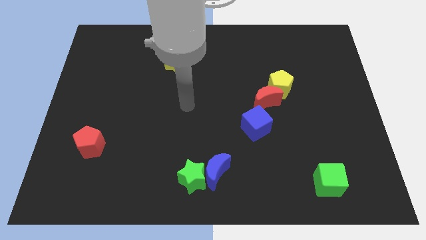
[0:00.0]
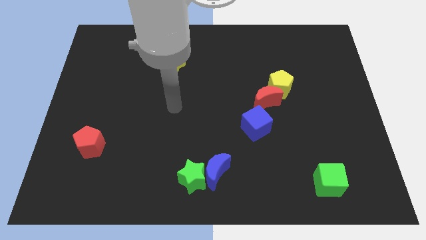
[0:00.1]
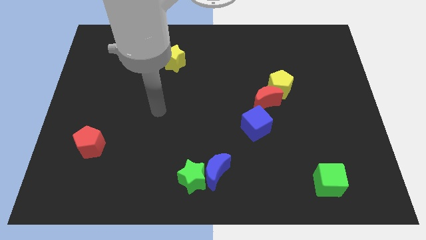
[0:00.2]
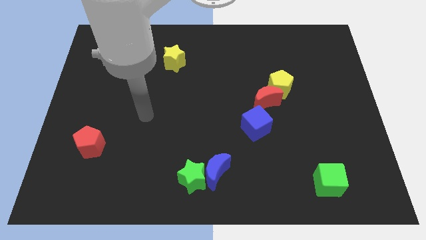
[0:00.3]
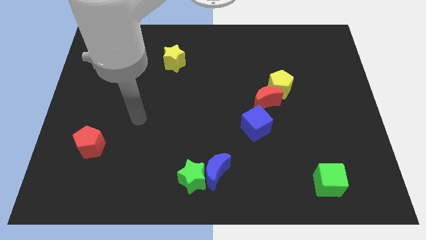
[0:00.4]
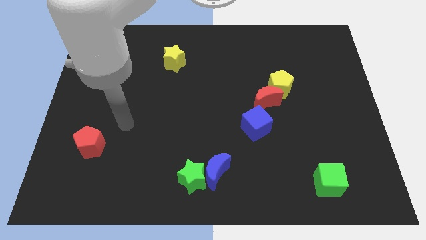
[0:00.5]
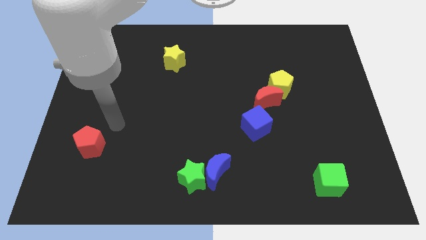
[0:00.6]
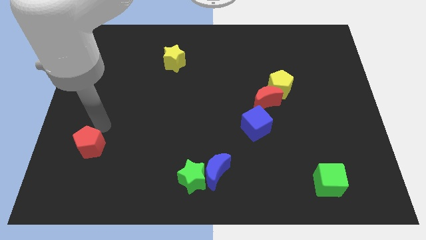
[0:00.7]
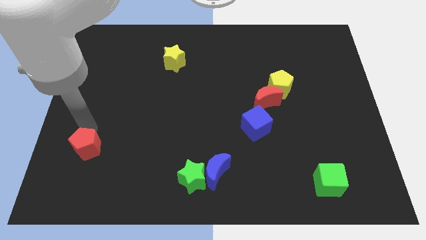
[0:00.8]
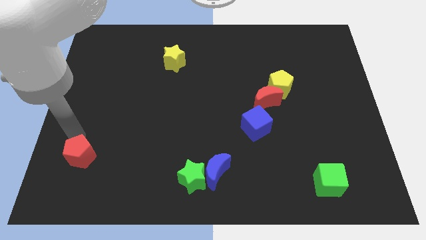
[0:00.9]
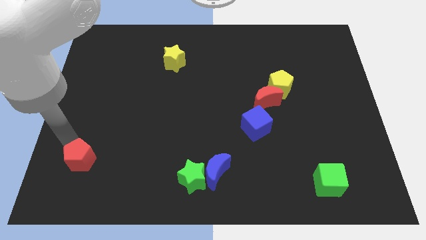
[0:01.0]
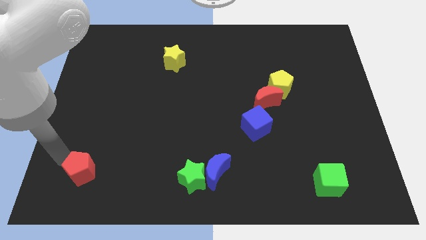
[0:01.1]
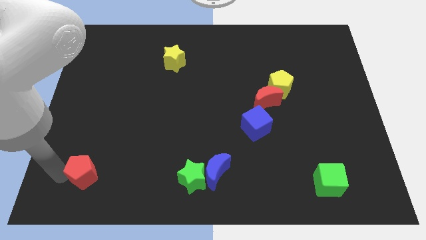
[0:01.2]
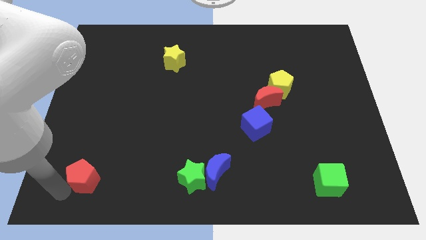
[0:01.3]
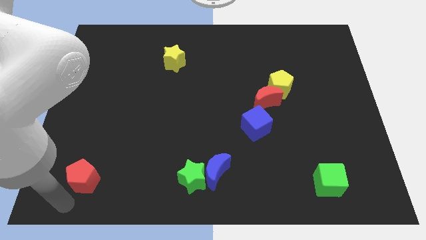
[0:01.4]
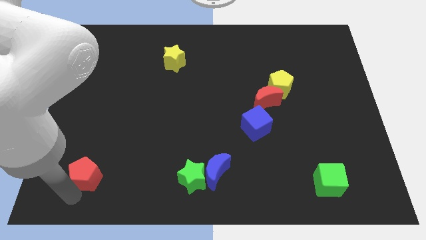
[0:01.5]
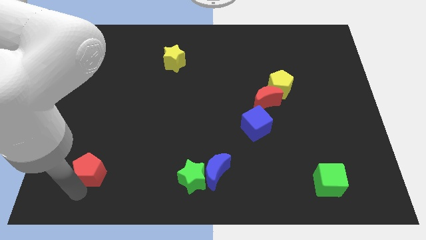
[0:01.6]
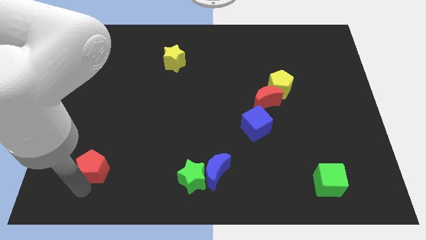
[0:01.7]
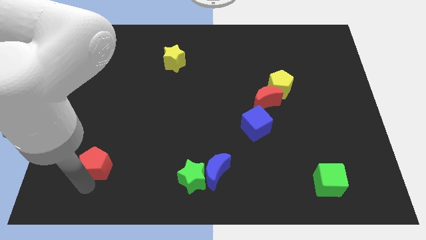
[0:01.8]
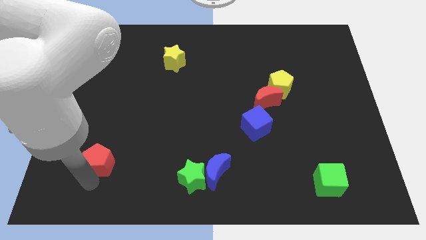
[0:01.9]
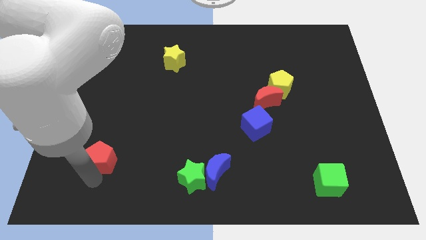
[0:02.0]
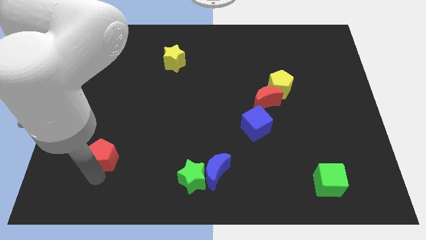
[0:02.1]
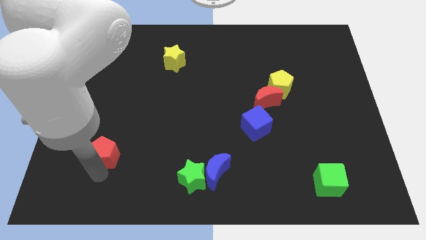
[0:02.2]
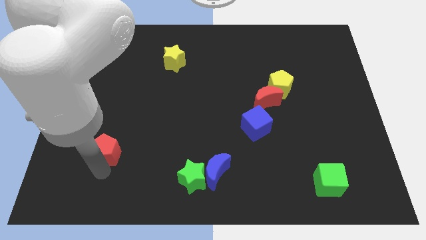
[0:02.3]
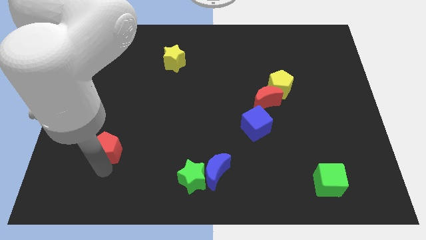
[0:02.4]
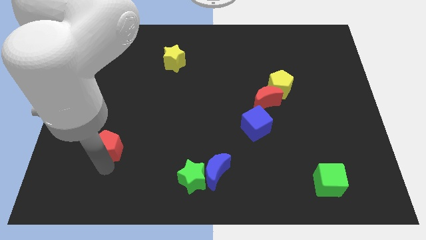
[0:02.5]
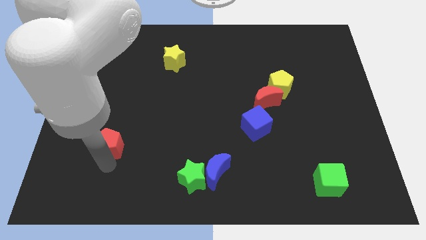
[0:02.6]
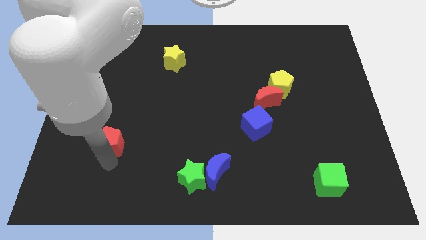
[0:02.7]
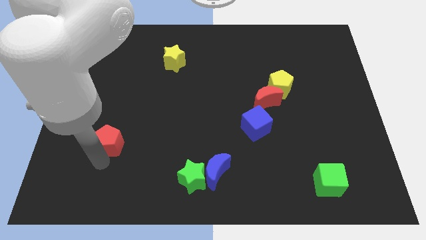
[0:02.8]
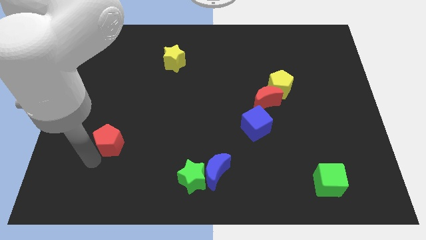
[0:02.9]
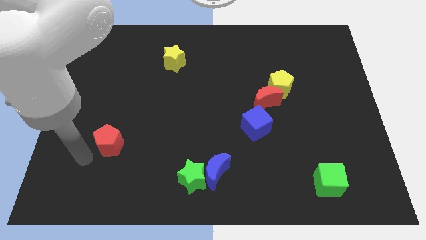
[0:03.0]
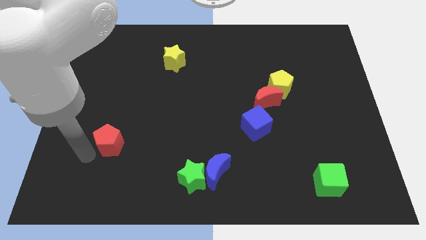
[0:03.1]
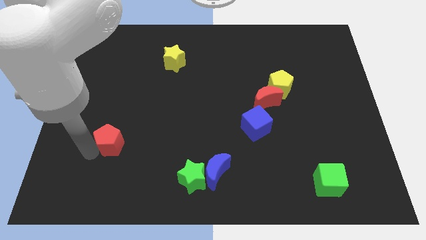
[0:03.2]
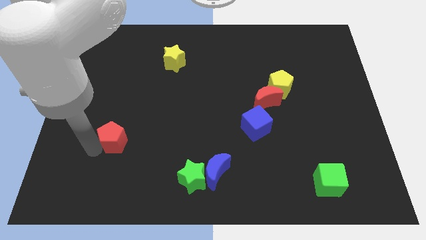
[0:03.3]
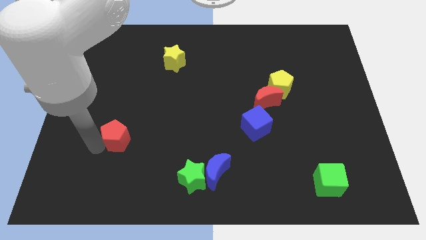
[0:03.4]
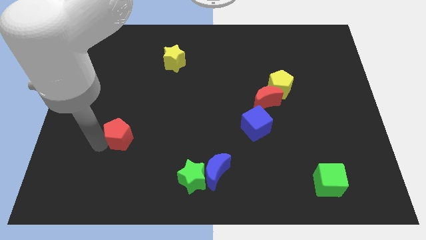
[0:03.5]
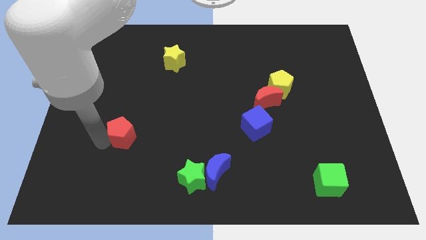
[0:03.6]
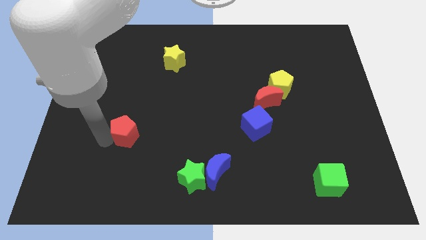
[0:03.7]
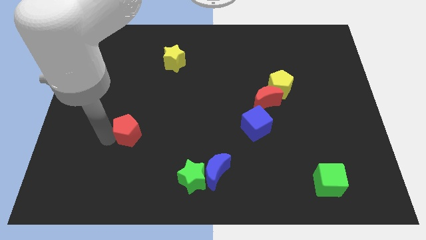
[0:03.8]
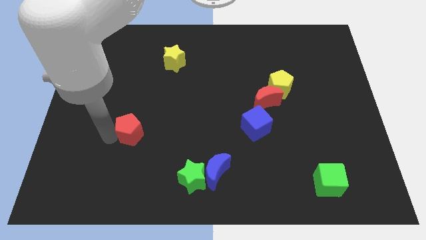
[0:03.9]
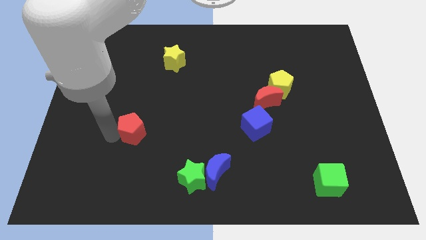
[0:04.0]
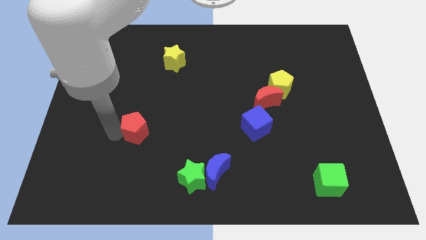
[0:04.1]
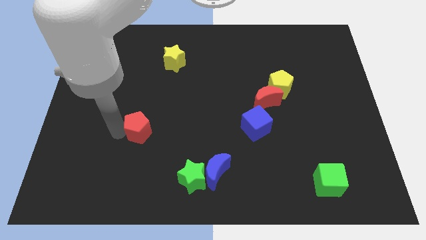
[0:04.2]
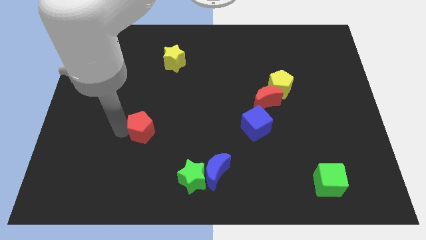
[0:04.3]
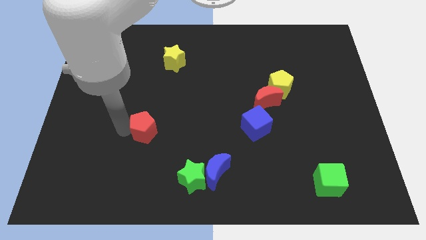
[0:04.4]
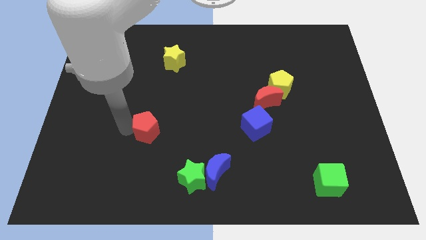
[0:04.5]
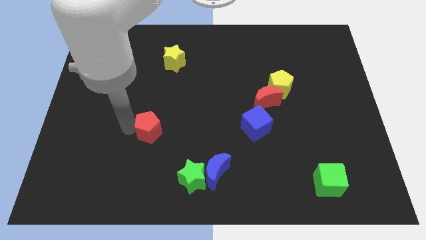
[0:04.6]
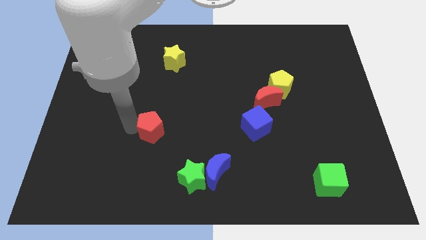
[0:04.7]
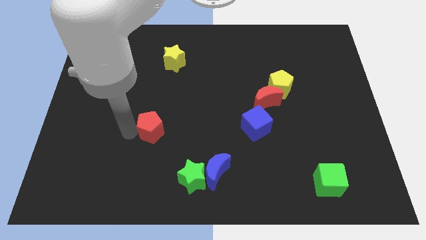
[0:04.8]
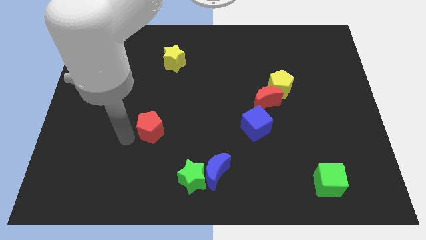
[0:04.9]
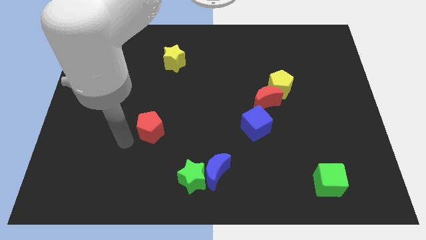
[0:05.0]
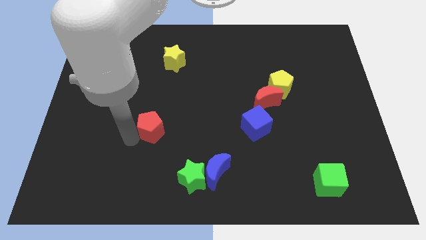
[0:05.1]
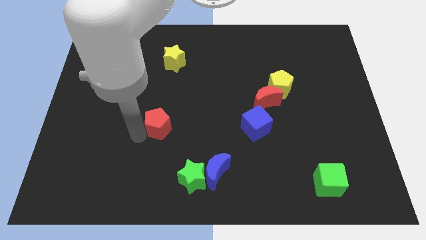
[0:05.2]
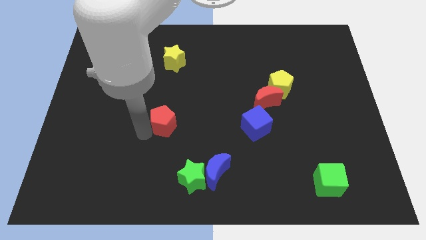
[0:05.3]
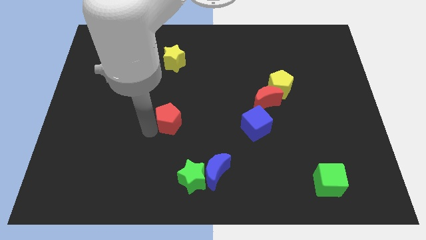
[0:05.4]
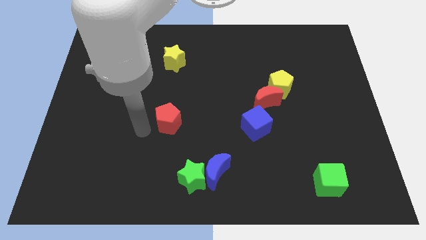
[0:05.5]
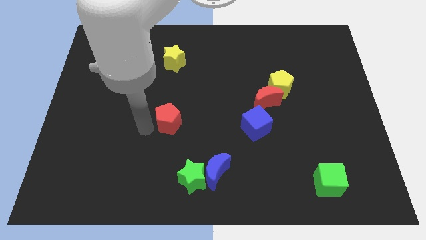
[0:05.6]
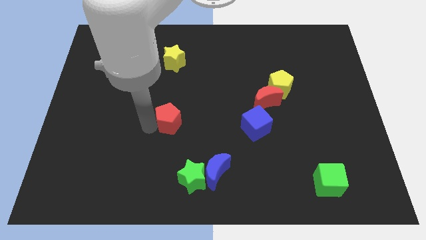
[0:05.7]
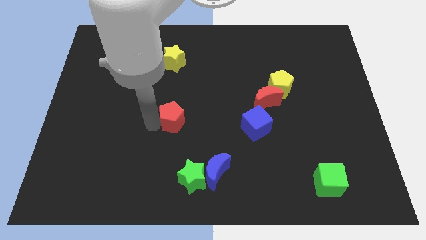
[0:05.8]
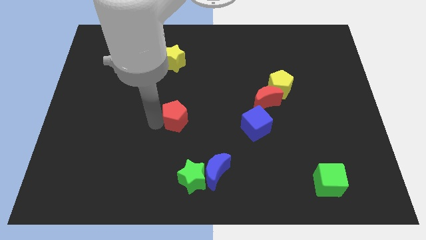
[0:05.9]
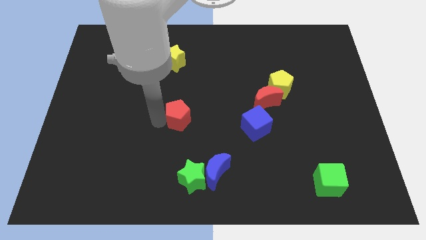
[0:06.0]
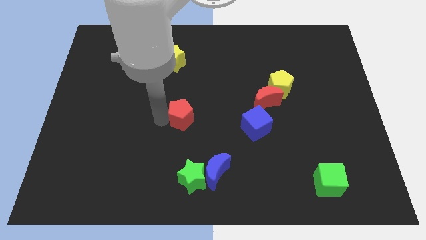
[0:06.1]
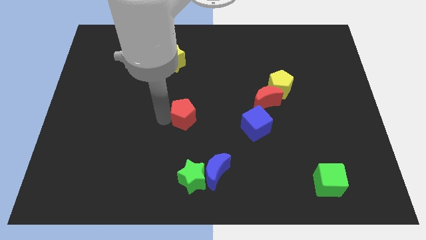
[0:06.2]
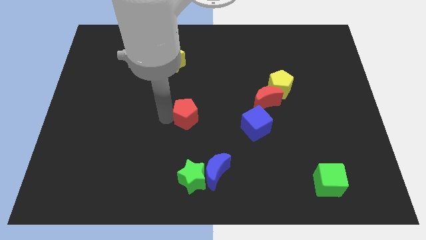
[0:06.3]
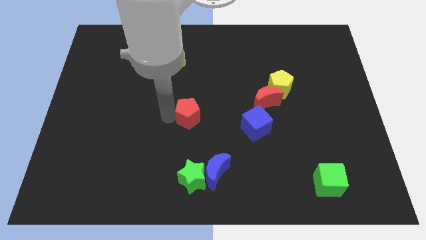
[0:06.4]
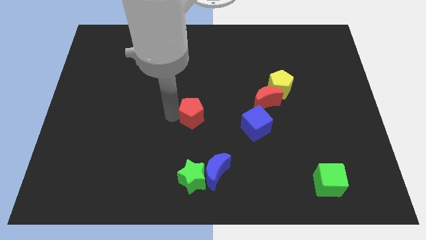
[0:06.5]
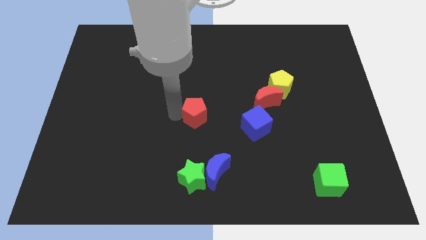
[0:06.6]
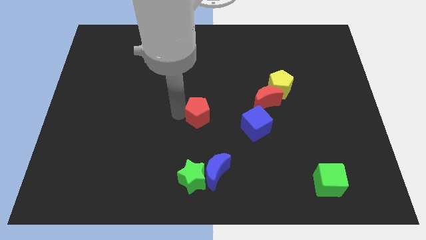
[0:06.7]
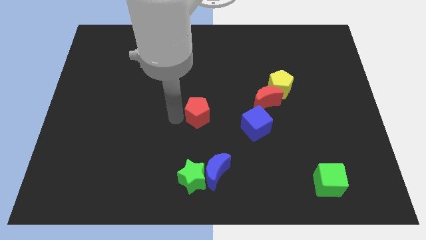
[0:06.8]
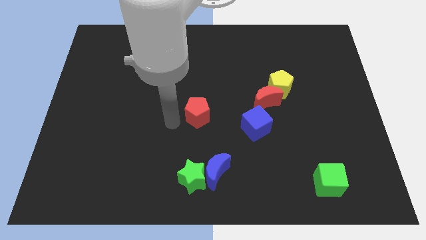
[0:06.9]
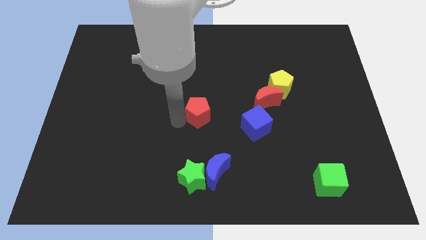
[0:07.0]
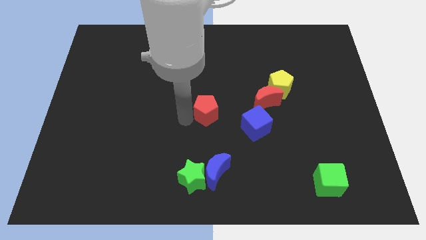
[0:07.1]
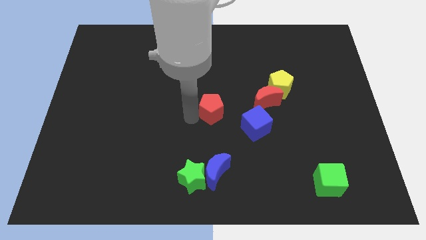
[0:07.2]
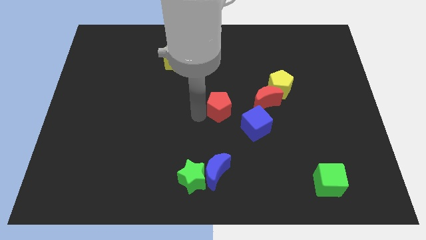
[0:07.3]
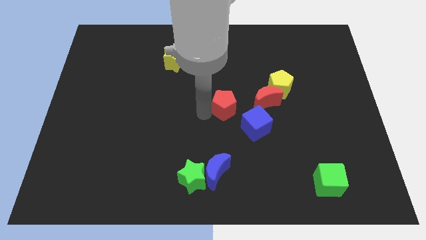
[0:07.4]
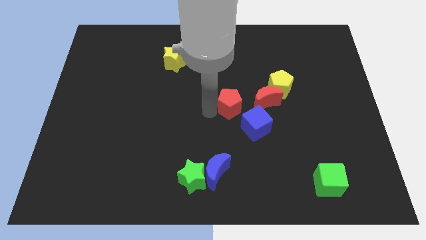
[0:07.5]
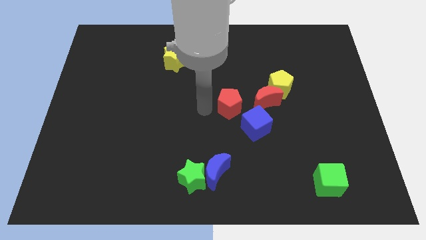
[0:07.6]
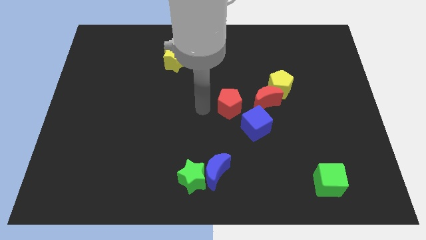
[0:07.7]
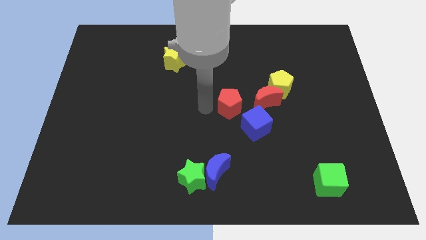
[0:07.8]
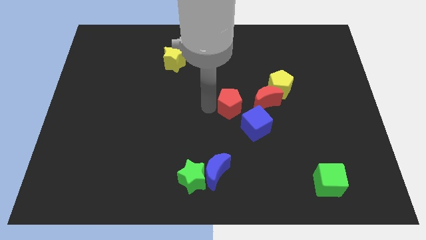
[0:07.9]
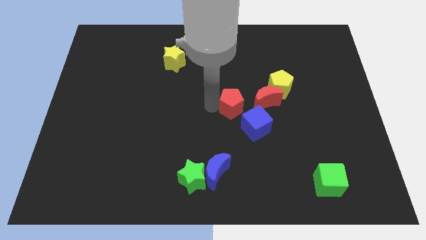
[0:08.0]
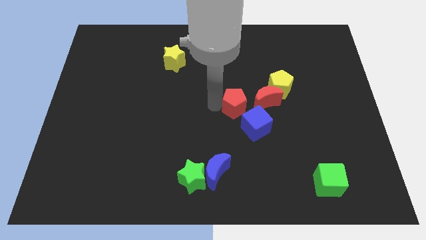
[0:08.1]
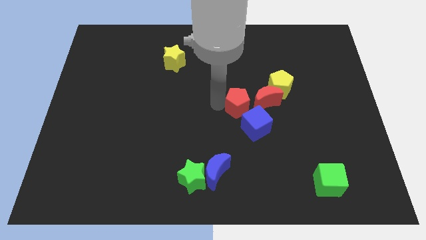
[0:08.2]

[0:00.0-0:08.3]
slide the red pentagon diagonally down and to the left of the yellow pentagon
